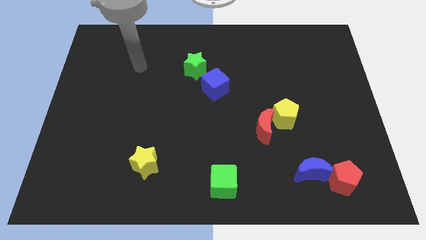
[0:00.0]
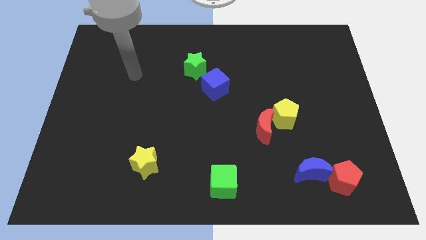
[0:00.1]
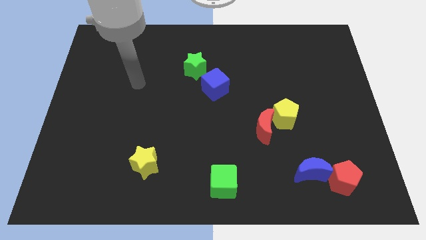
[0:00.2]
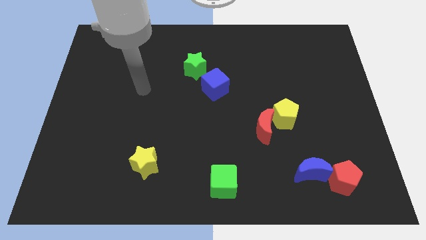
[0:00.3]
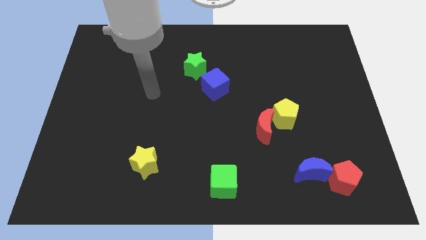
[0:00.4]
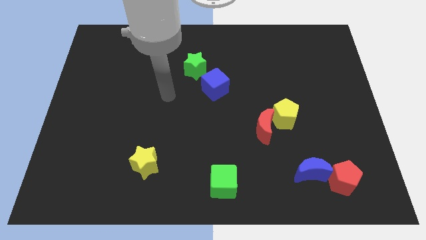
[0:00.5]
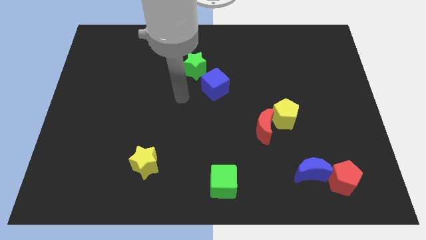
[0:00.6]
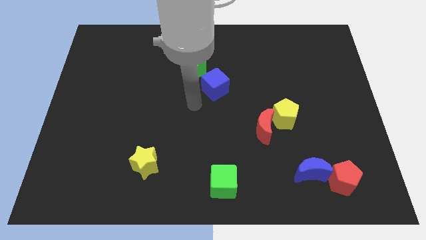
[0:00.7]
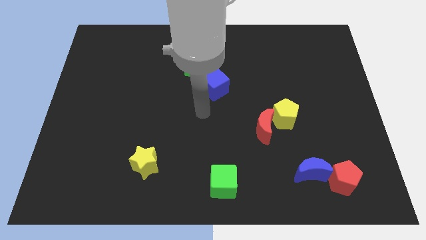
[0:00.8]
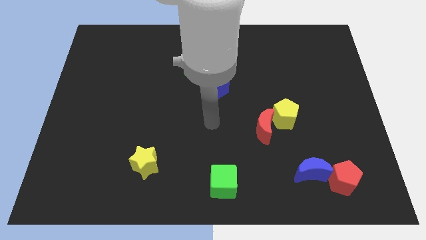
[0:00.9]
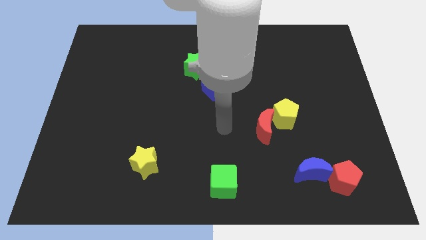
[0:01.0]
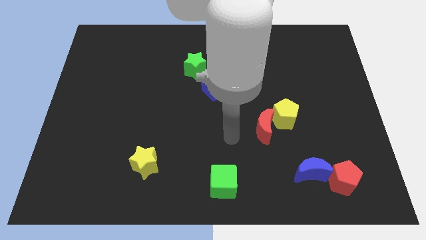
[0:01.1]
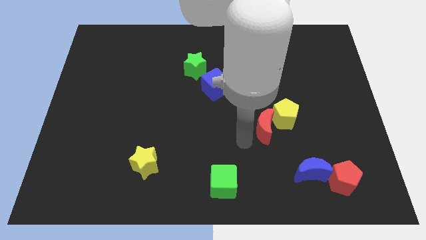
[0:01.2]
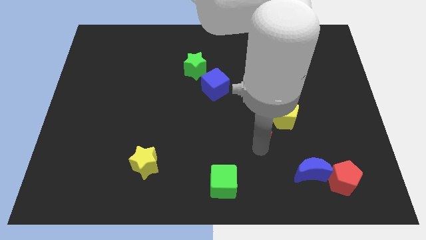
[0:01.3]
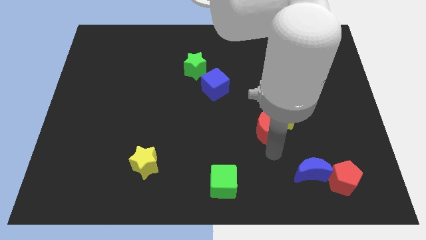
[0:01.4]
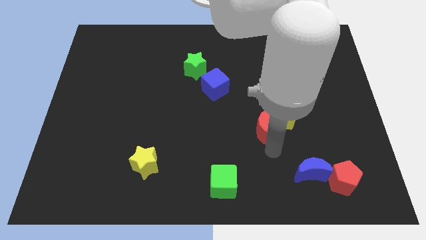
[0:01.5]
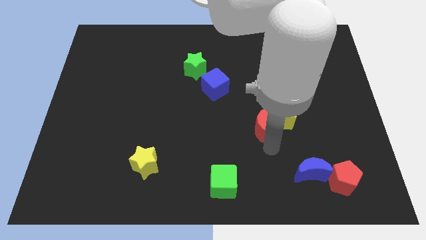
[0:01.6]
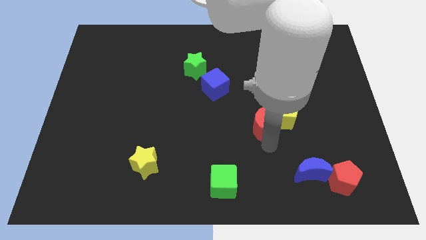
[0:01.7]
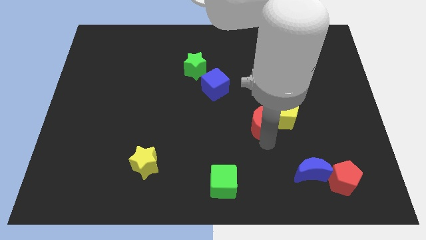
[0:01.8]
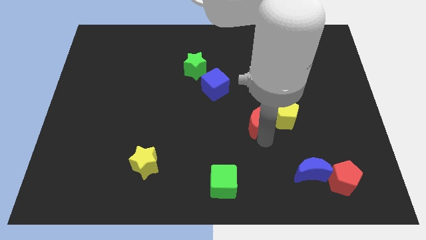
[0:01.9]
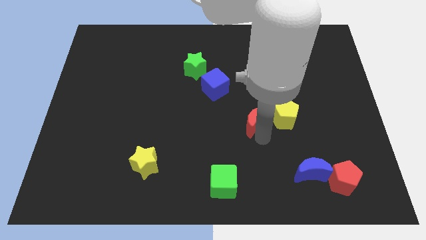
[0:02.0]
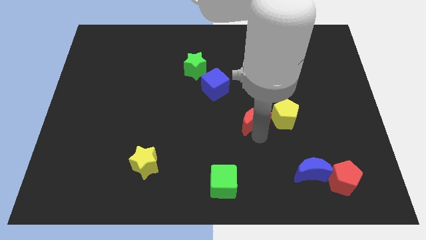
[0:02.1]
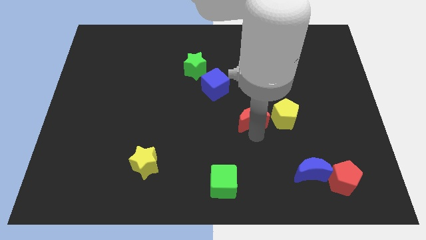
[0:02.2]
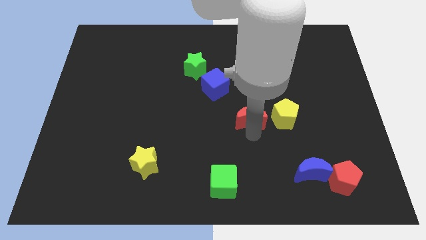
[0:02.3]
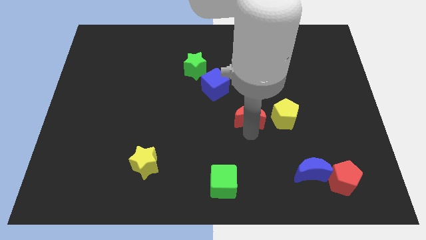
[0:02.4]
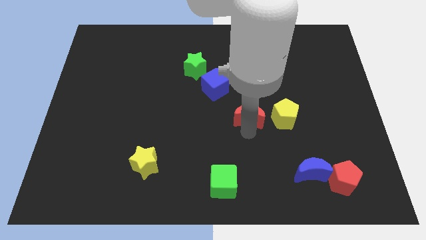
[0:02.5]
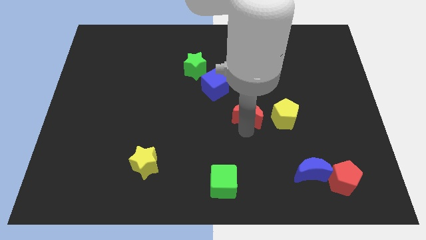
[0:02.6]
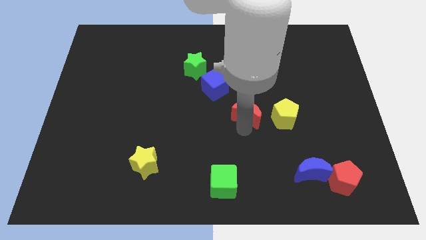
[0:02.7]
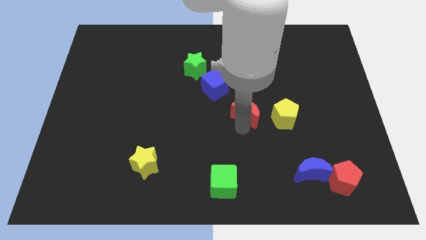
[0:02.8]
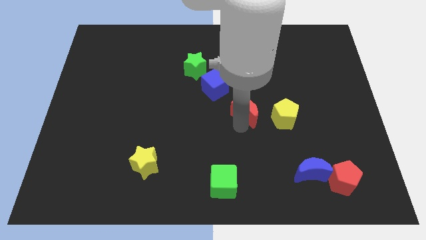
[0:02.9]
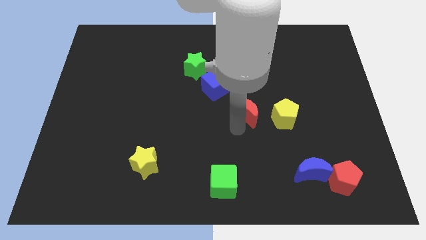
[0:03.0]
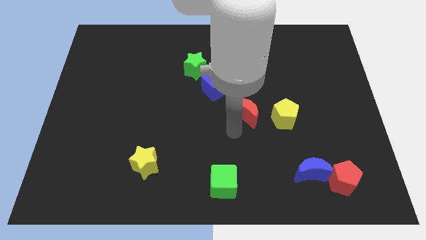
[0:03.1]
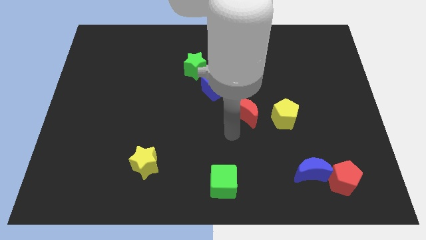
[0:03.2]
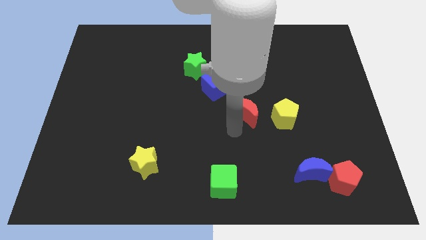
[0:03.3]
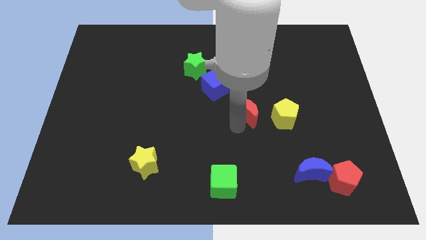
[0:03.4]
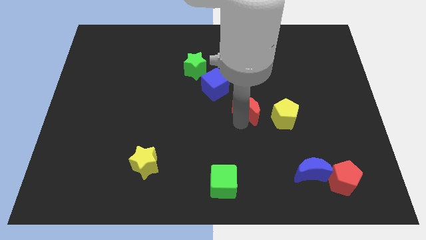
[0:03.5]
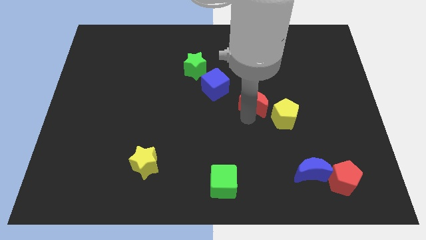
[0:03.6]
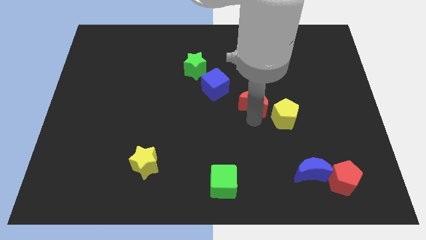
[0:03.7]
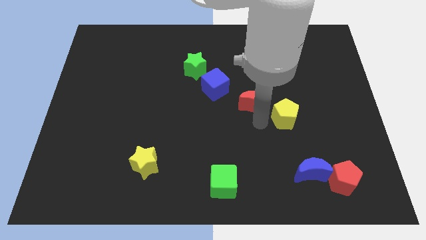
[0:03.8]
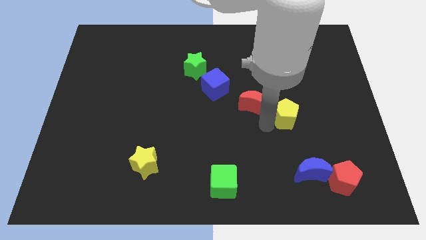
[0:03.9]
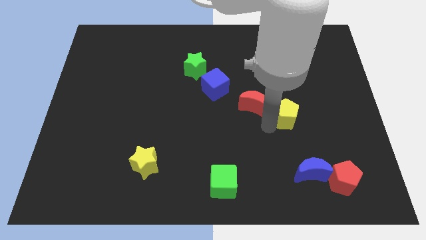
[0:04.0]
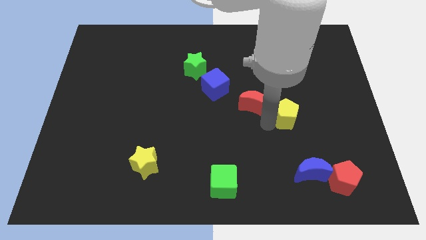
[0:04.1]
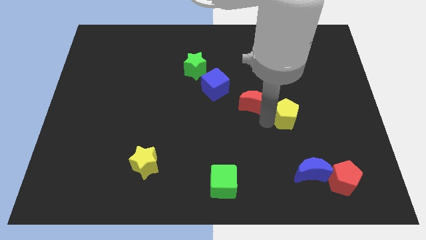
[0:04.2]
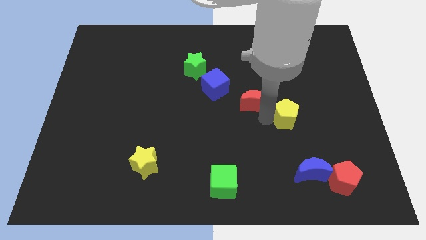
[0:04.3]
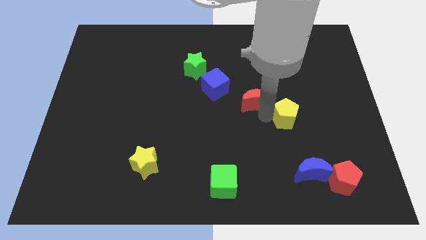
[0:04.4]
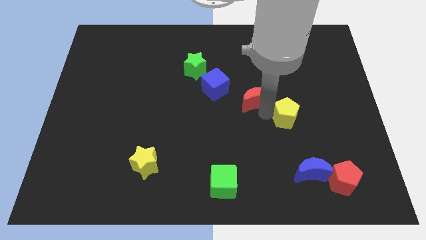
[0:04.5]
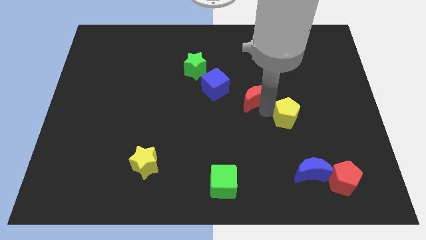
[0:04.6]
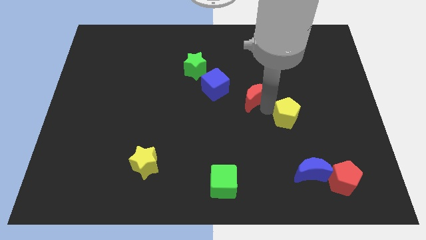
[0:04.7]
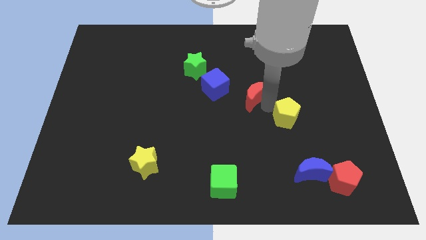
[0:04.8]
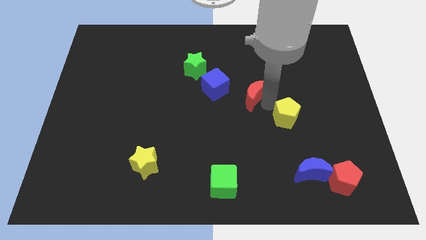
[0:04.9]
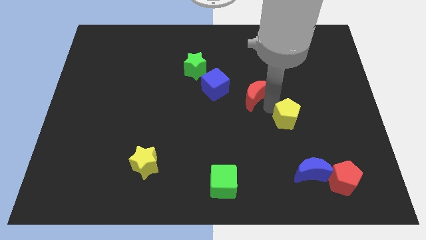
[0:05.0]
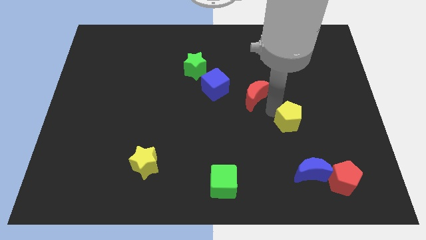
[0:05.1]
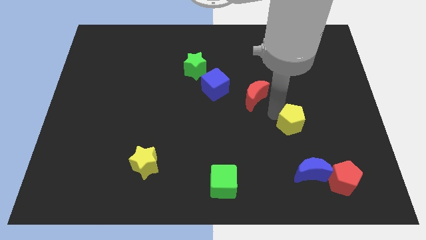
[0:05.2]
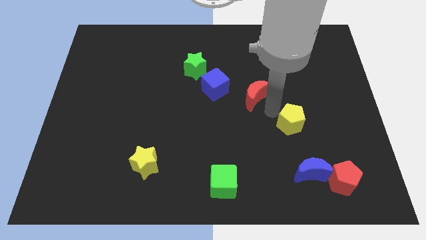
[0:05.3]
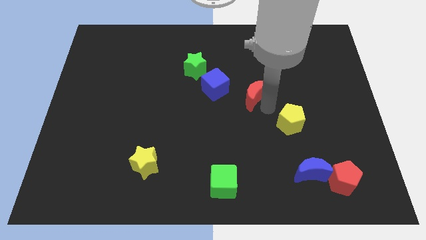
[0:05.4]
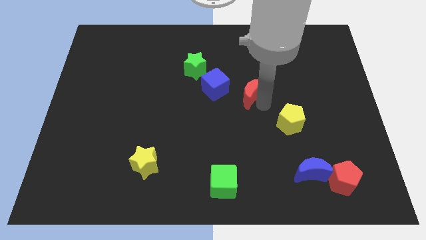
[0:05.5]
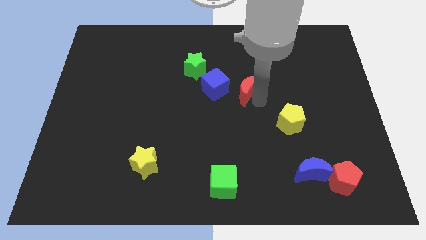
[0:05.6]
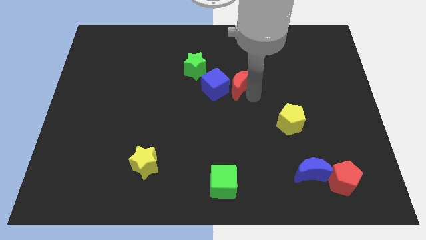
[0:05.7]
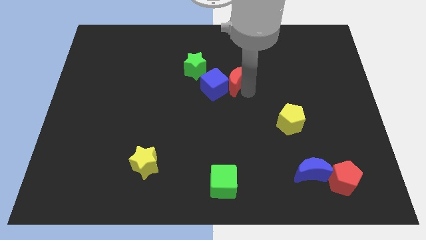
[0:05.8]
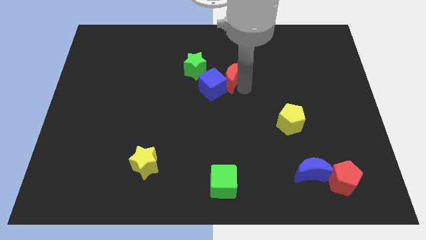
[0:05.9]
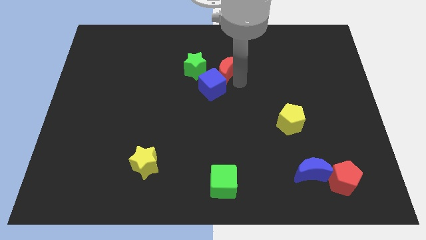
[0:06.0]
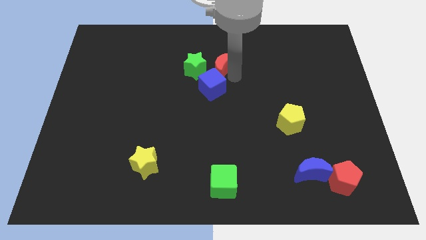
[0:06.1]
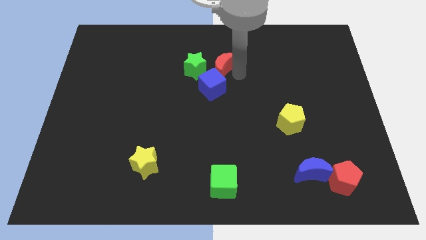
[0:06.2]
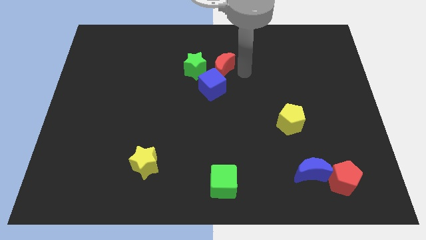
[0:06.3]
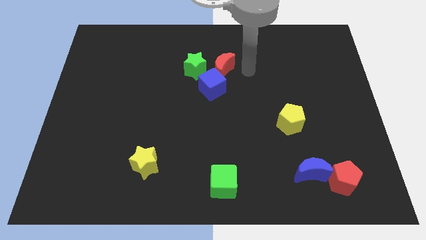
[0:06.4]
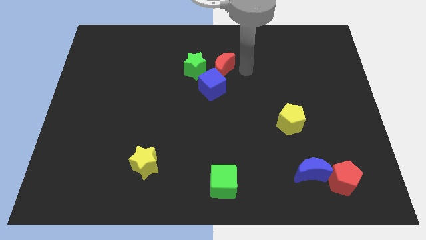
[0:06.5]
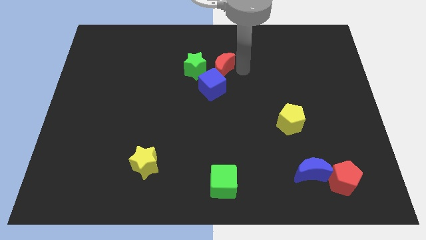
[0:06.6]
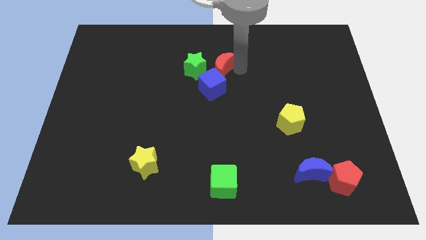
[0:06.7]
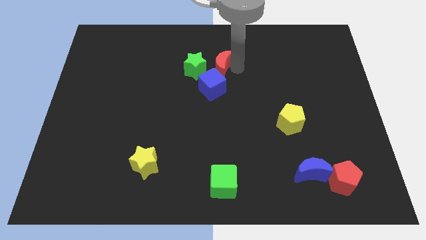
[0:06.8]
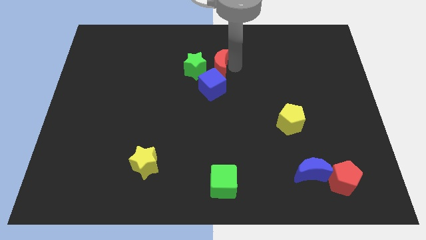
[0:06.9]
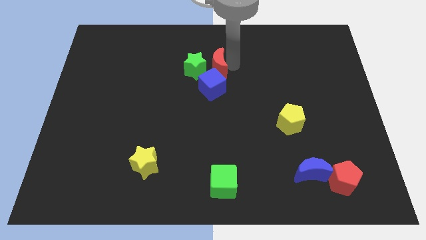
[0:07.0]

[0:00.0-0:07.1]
move the red moon towards the green star

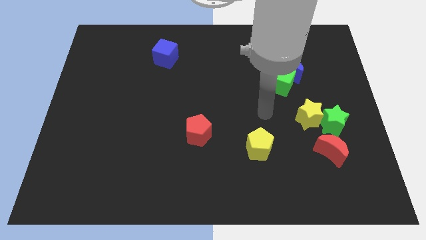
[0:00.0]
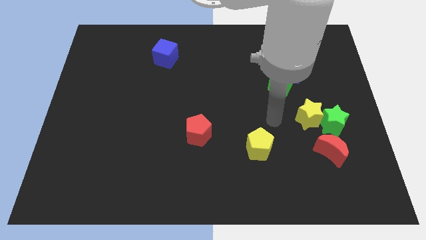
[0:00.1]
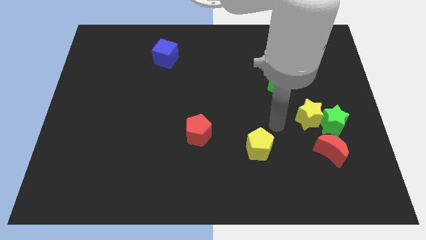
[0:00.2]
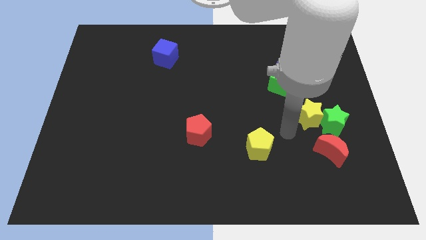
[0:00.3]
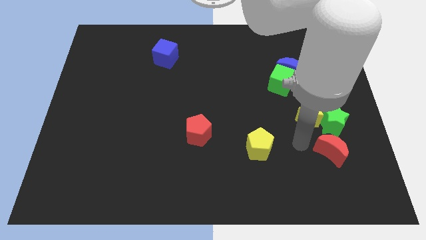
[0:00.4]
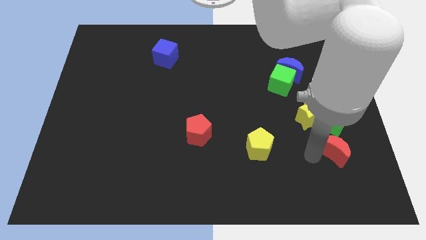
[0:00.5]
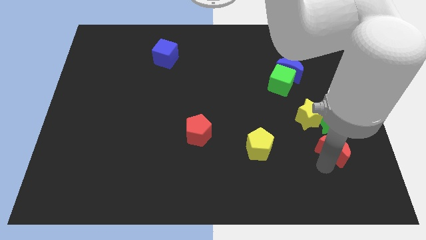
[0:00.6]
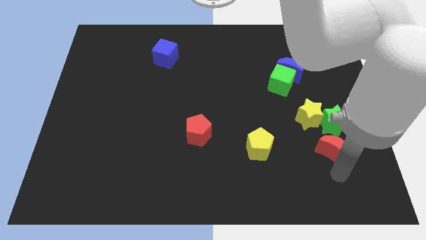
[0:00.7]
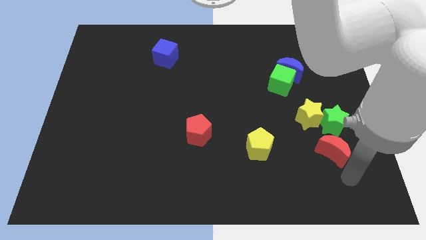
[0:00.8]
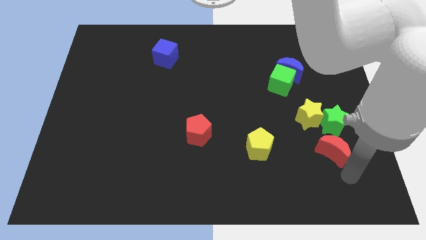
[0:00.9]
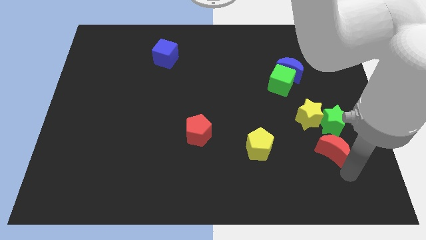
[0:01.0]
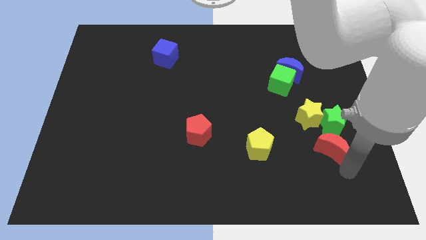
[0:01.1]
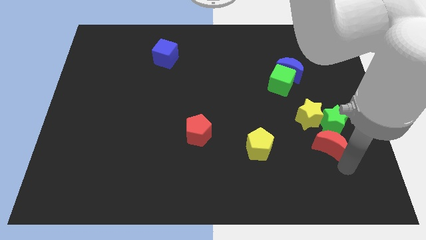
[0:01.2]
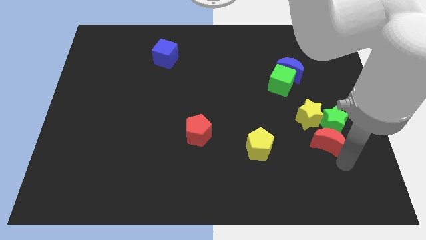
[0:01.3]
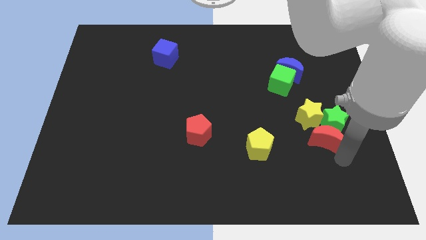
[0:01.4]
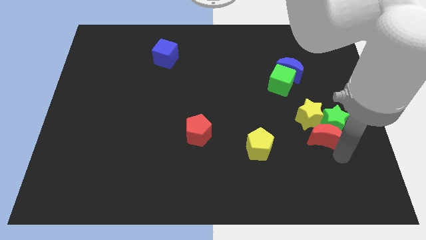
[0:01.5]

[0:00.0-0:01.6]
move the red moon to the yellow star
